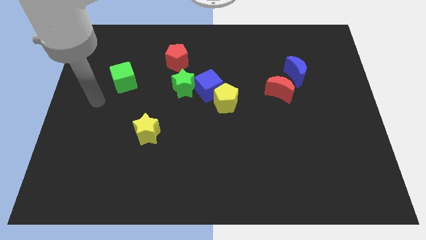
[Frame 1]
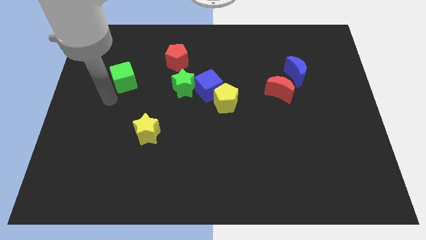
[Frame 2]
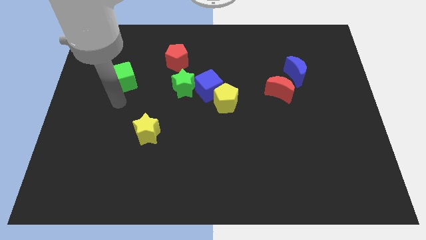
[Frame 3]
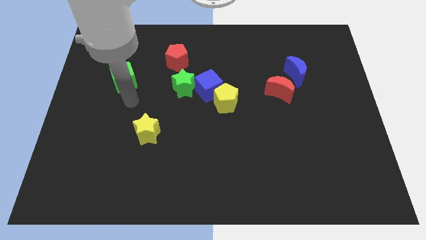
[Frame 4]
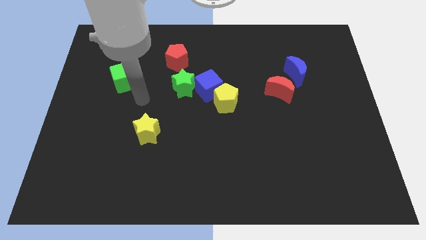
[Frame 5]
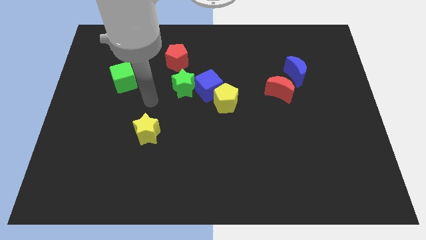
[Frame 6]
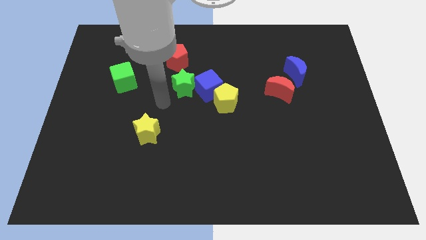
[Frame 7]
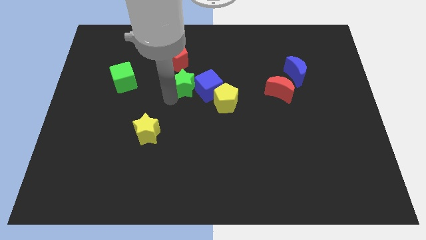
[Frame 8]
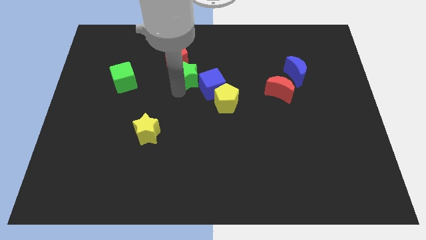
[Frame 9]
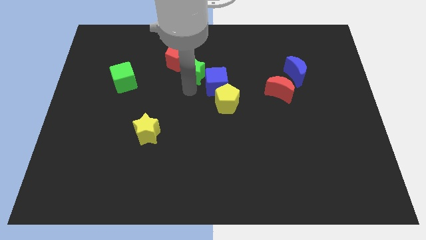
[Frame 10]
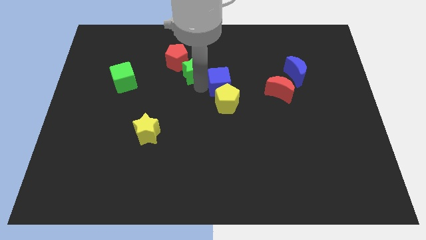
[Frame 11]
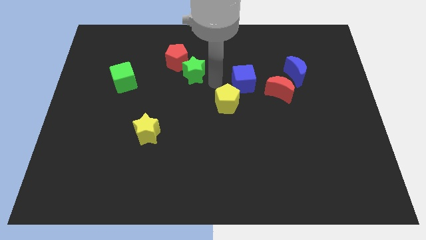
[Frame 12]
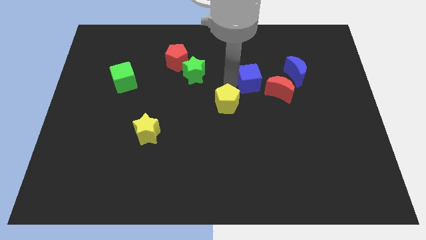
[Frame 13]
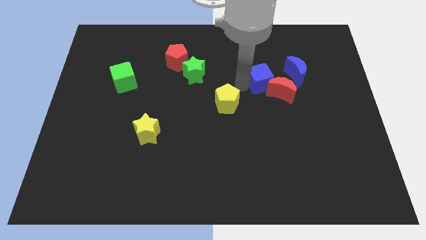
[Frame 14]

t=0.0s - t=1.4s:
separate the yellow pentagon from the blue cube

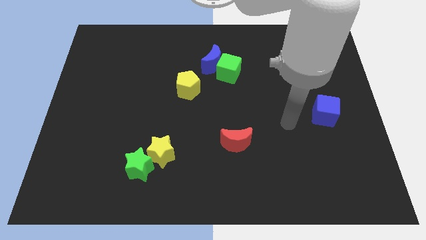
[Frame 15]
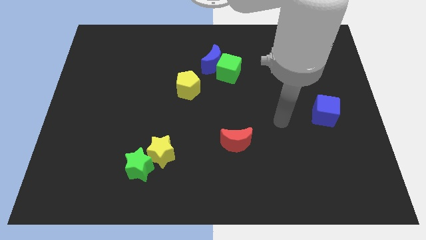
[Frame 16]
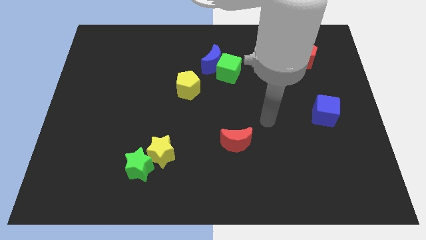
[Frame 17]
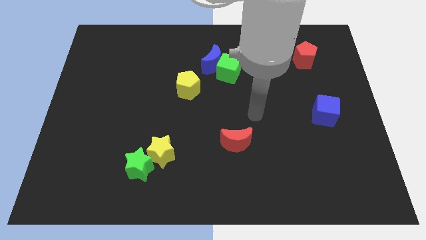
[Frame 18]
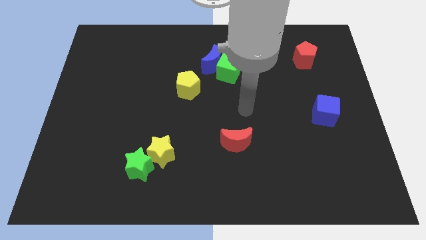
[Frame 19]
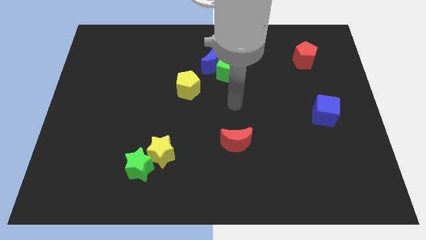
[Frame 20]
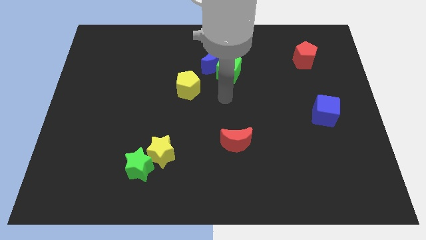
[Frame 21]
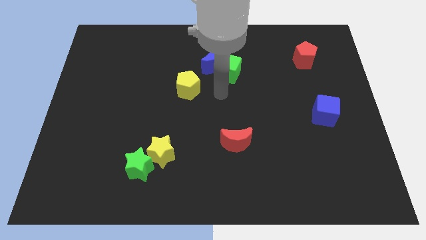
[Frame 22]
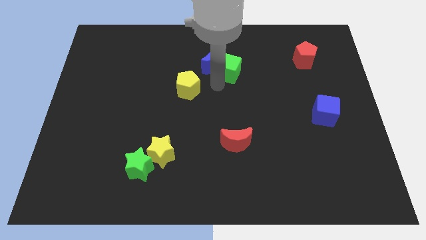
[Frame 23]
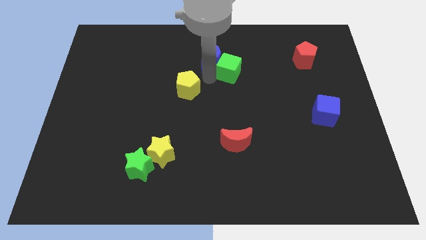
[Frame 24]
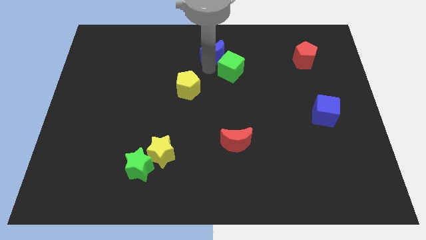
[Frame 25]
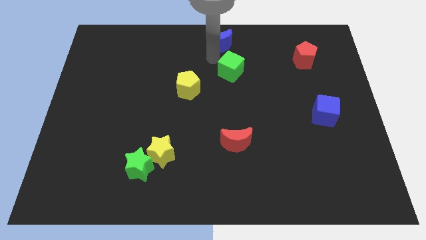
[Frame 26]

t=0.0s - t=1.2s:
move the green cube away from the blue moon

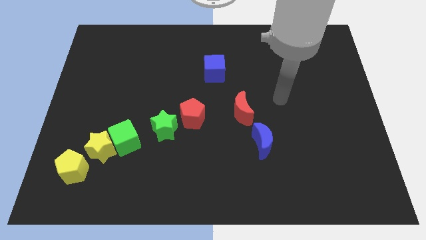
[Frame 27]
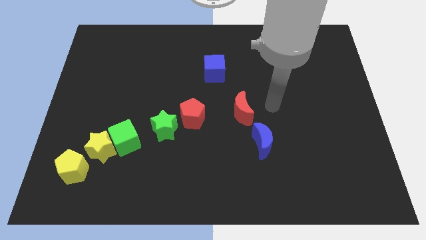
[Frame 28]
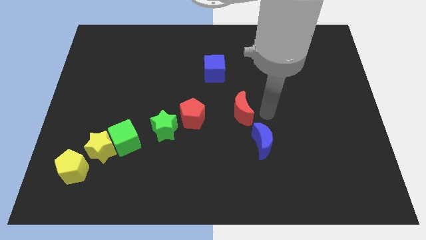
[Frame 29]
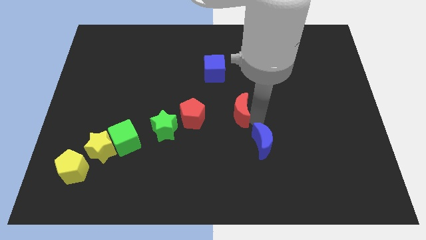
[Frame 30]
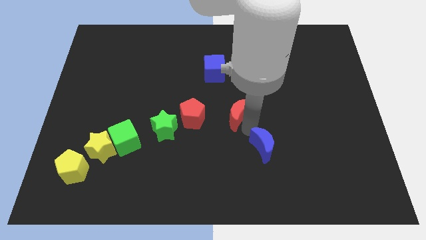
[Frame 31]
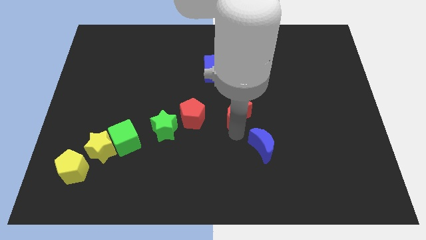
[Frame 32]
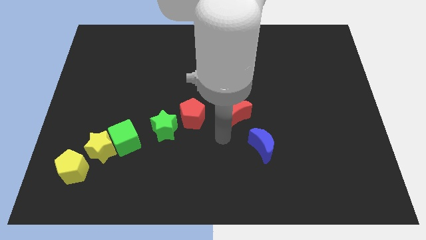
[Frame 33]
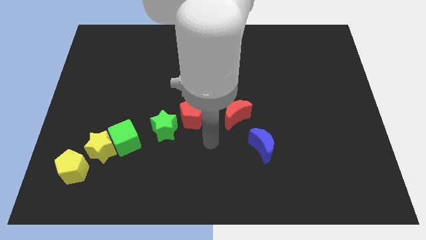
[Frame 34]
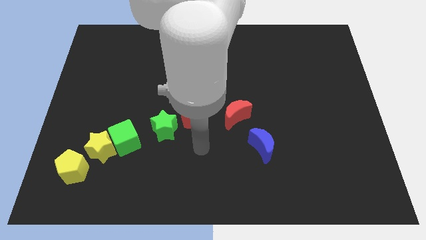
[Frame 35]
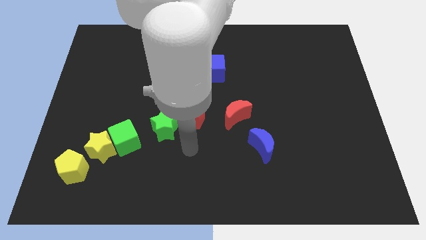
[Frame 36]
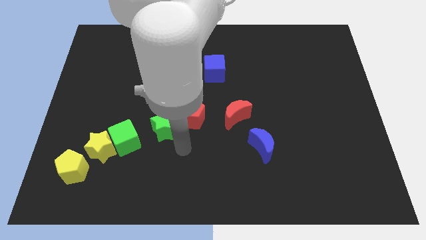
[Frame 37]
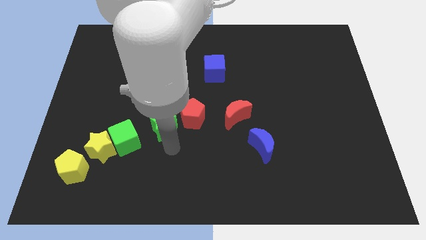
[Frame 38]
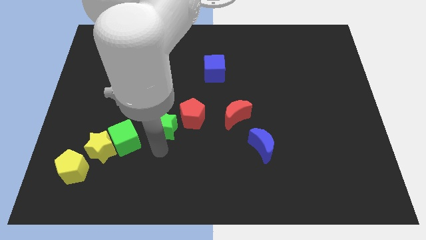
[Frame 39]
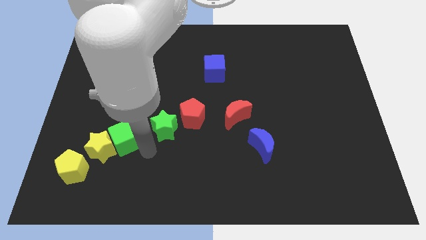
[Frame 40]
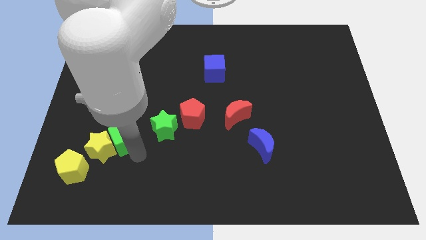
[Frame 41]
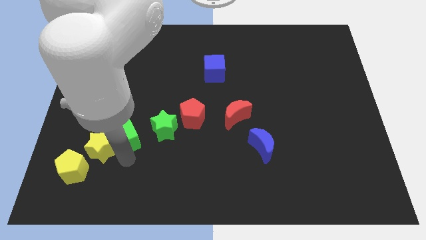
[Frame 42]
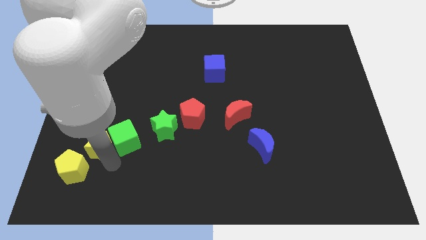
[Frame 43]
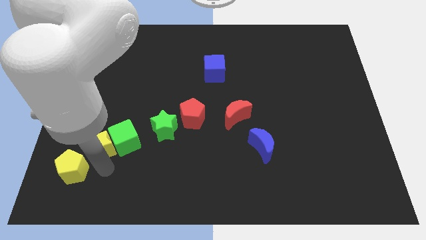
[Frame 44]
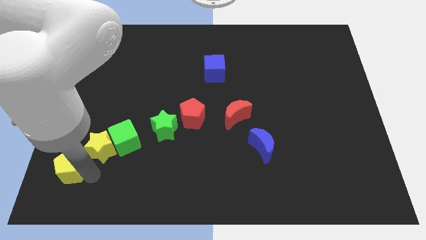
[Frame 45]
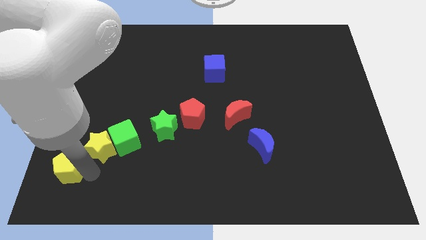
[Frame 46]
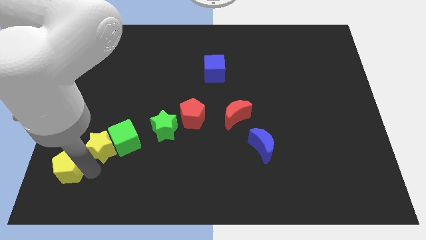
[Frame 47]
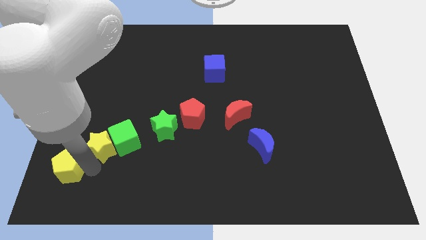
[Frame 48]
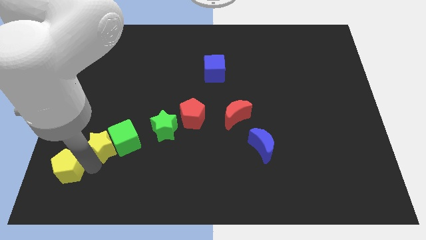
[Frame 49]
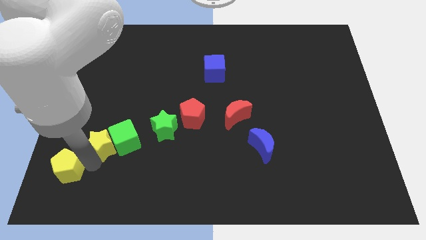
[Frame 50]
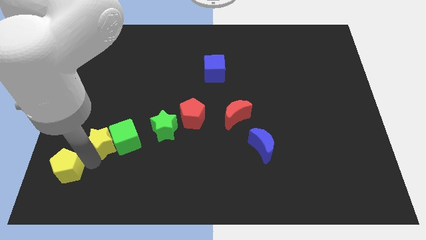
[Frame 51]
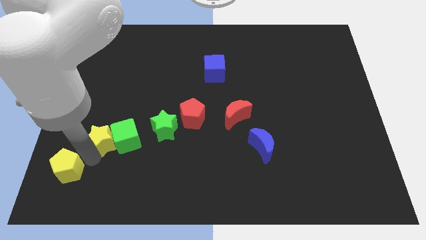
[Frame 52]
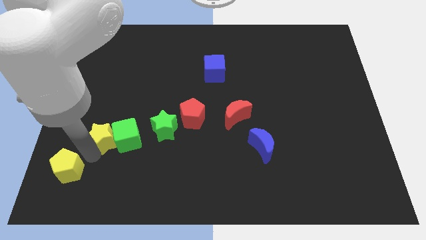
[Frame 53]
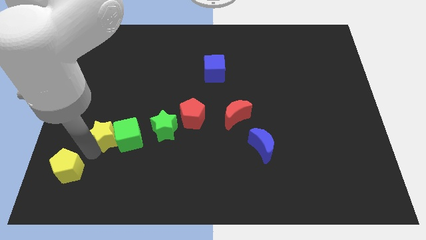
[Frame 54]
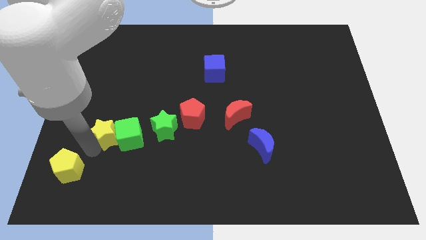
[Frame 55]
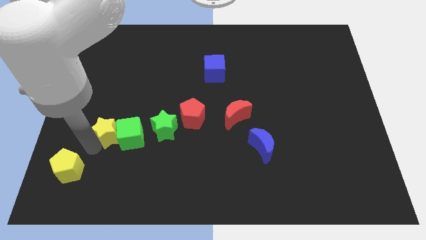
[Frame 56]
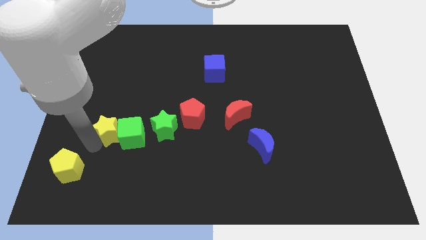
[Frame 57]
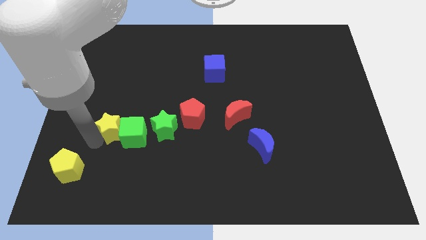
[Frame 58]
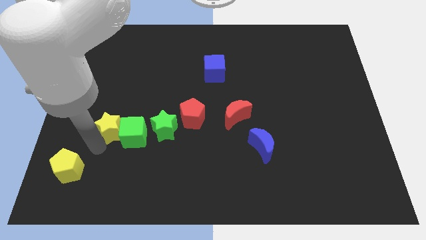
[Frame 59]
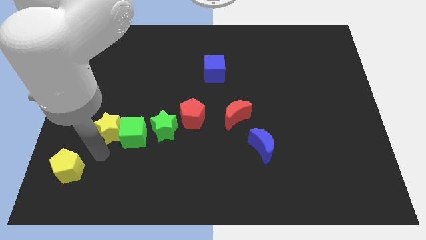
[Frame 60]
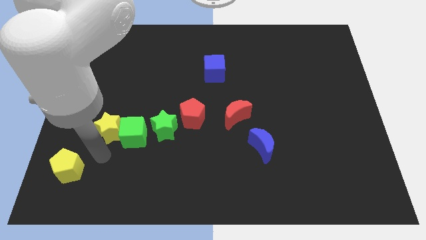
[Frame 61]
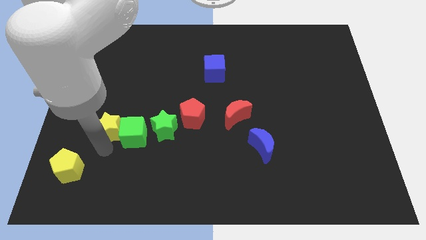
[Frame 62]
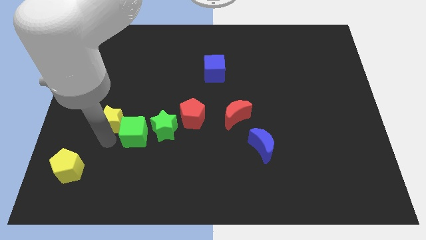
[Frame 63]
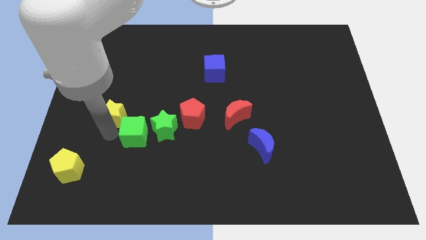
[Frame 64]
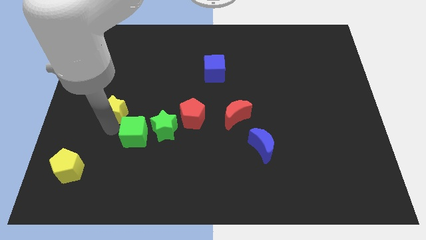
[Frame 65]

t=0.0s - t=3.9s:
pull the yellow star apart from the green cube and yellow pentagon

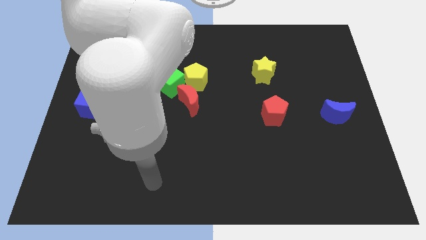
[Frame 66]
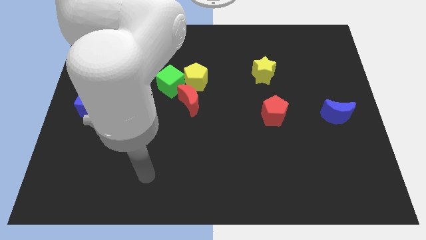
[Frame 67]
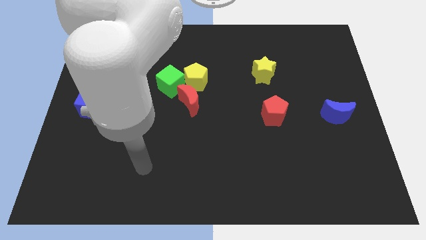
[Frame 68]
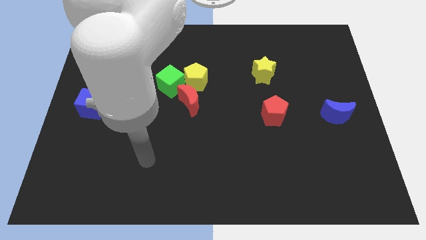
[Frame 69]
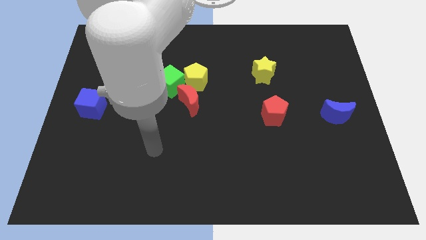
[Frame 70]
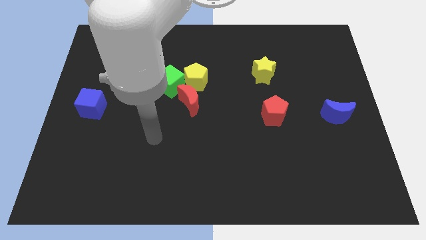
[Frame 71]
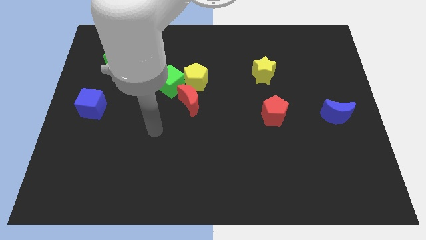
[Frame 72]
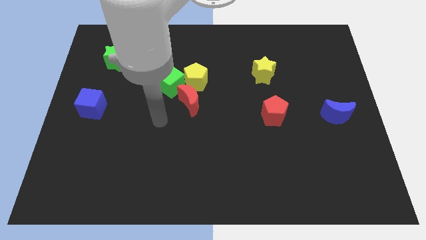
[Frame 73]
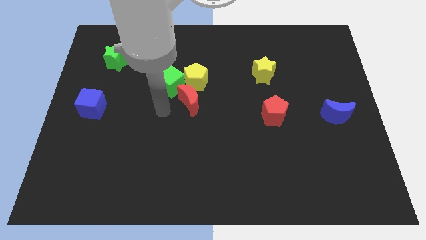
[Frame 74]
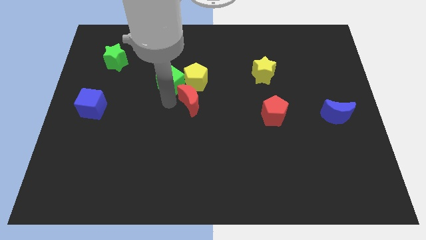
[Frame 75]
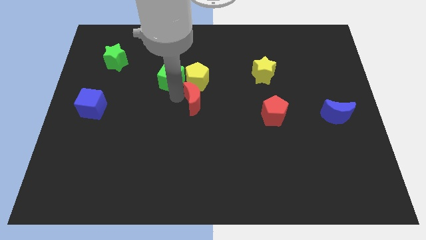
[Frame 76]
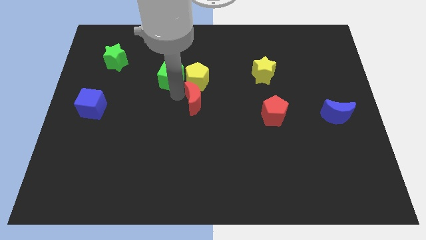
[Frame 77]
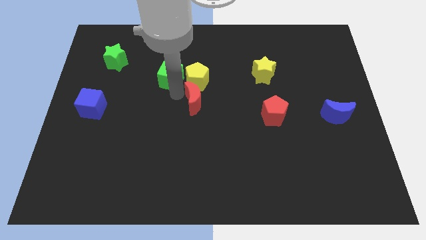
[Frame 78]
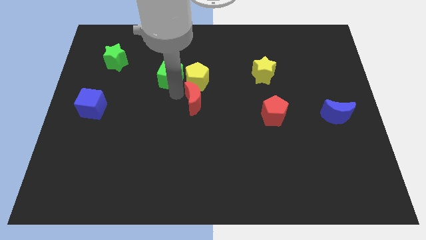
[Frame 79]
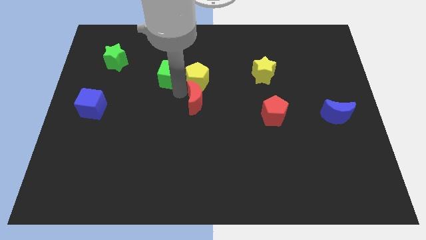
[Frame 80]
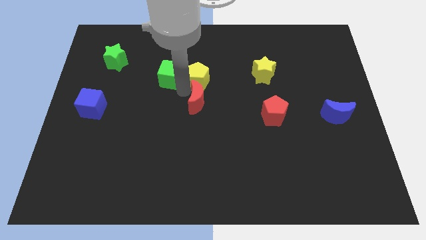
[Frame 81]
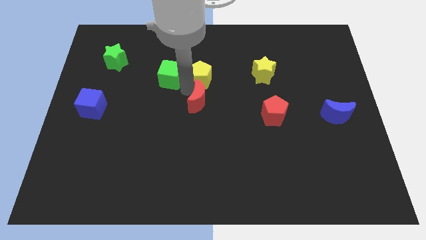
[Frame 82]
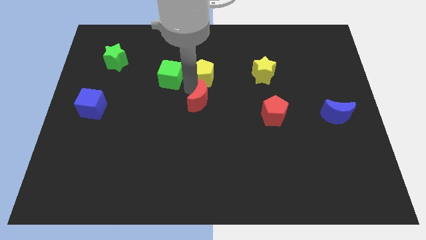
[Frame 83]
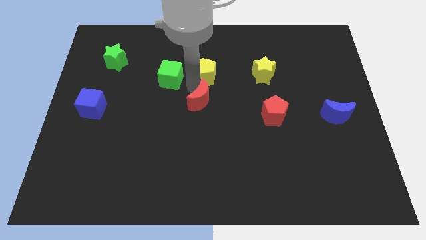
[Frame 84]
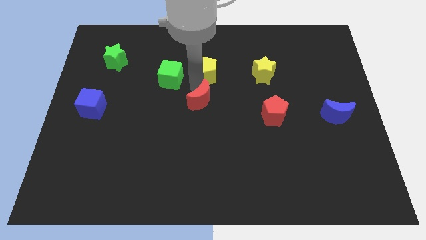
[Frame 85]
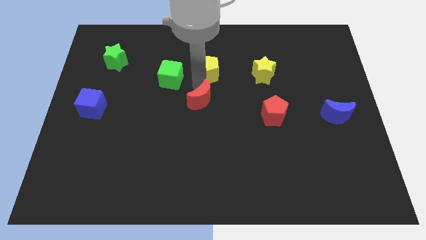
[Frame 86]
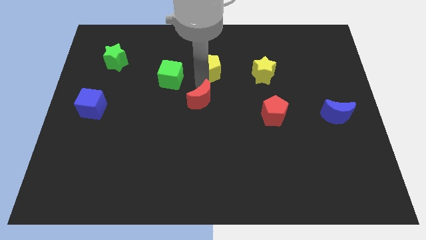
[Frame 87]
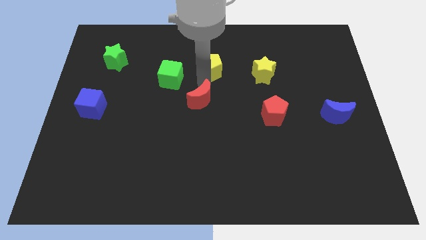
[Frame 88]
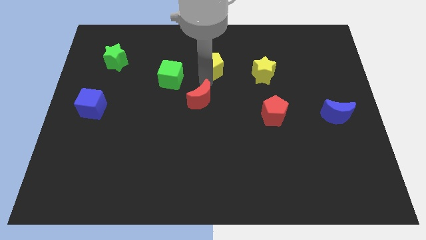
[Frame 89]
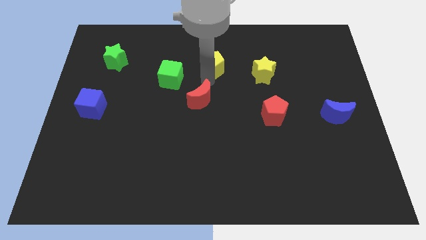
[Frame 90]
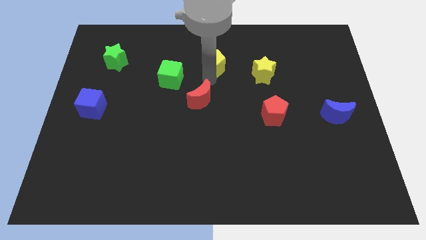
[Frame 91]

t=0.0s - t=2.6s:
move the yellow pentagon away from the green cube and red moon

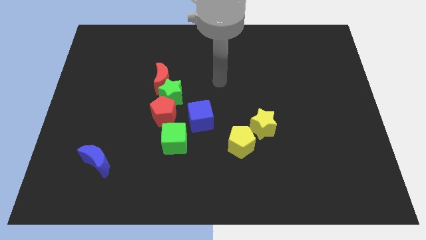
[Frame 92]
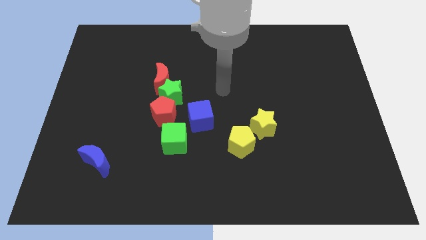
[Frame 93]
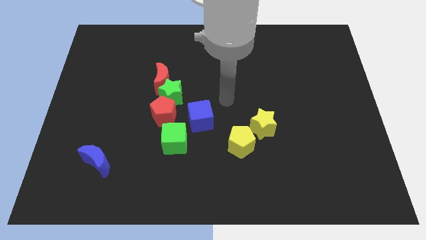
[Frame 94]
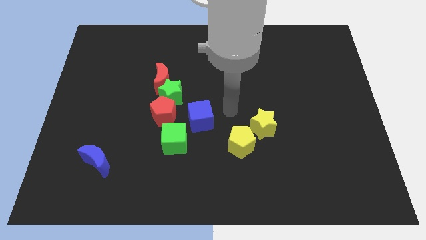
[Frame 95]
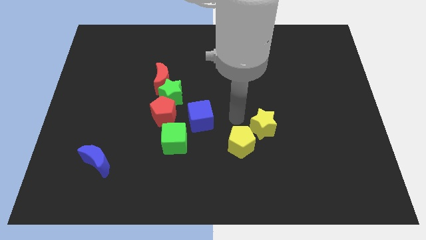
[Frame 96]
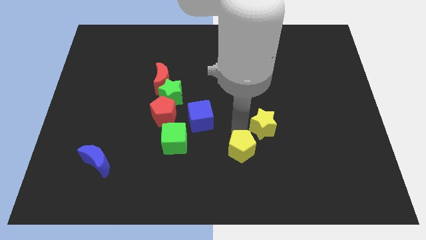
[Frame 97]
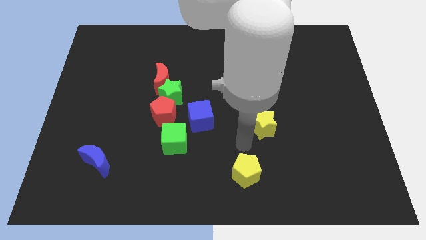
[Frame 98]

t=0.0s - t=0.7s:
separate the yellow star from the yellow pentagon
